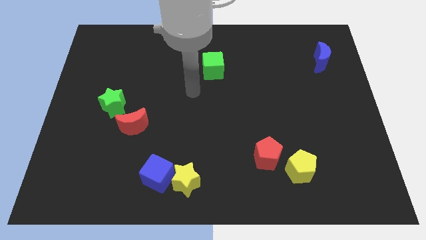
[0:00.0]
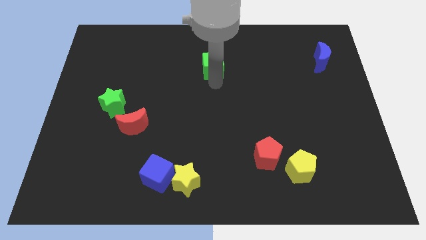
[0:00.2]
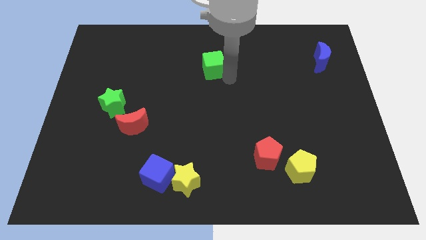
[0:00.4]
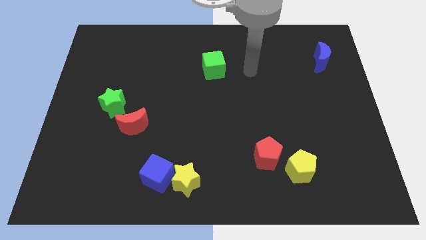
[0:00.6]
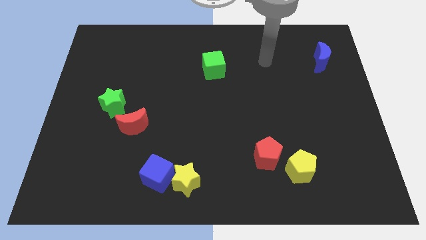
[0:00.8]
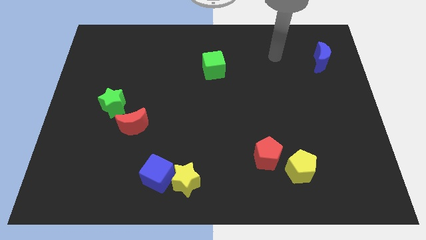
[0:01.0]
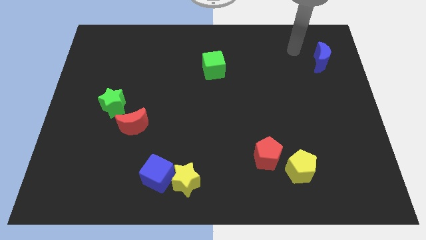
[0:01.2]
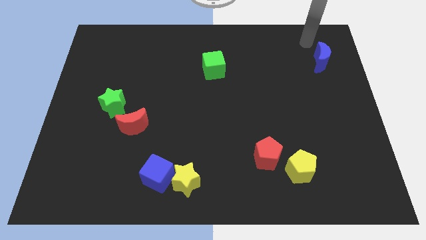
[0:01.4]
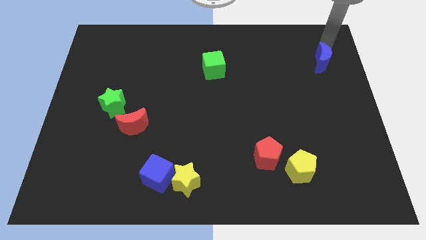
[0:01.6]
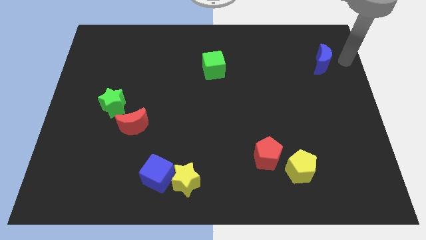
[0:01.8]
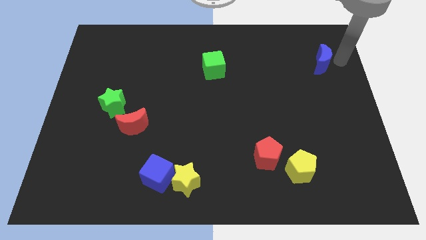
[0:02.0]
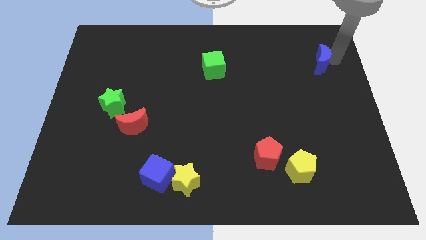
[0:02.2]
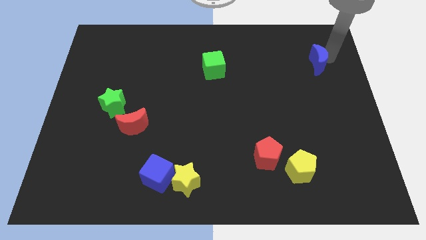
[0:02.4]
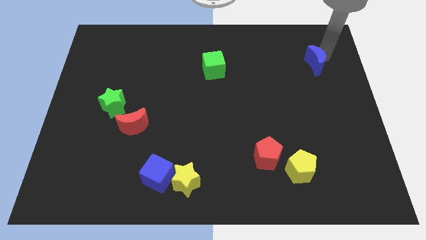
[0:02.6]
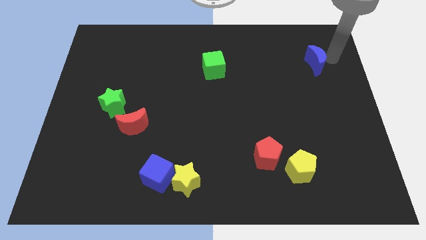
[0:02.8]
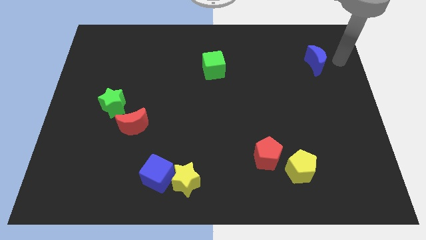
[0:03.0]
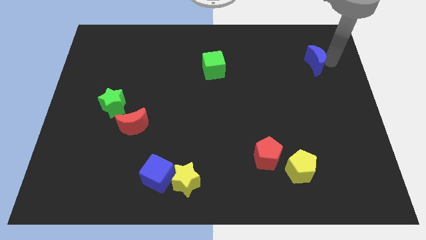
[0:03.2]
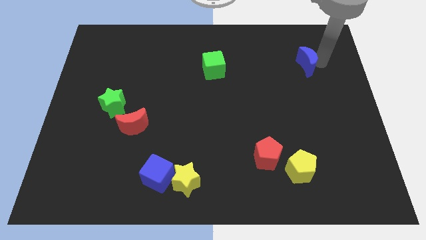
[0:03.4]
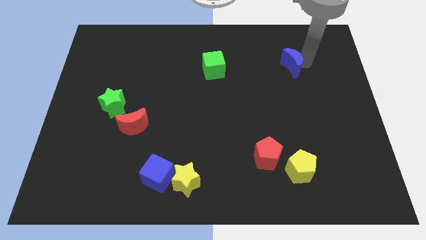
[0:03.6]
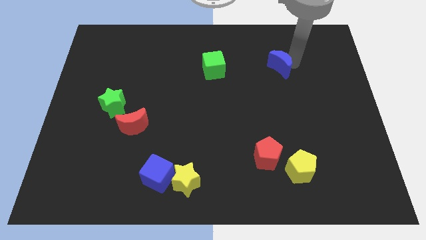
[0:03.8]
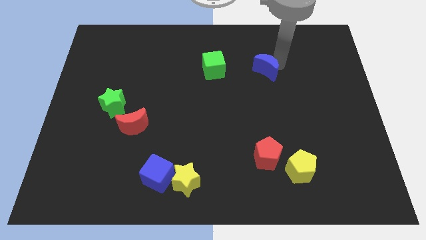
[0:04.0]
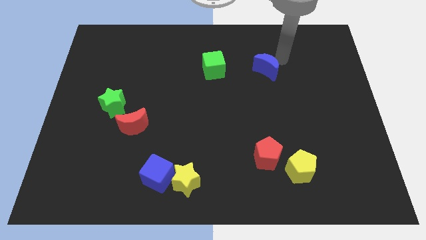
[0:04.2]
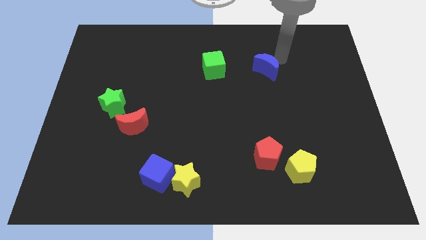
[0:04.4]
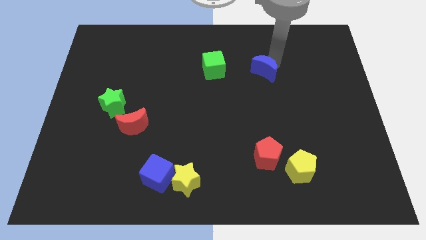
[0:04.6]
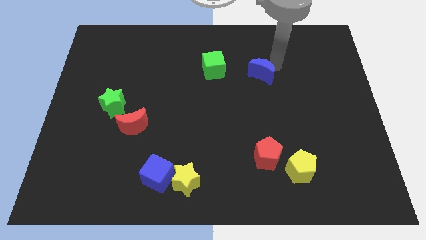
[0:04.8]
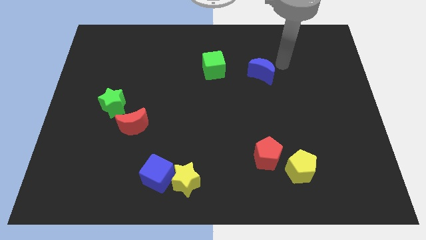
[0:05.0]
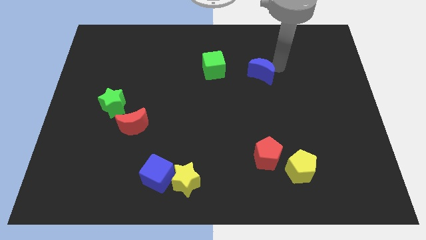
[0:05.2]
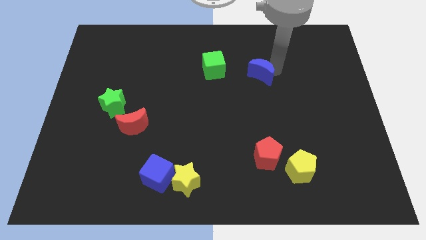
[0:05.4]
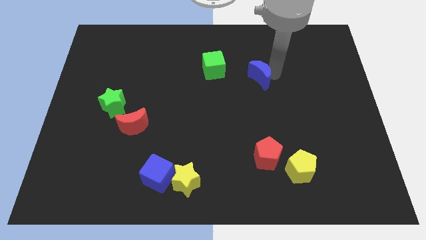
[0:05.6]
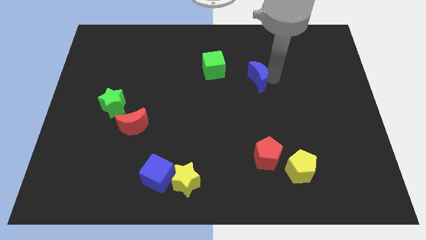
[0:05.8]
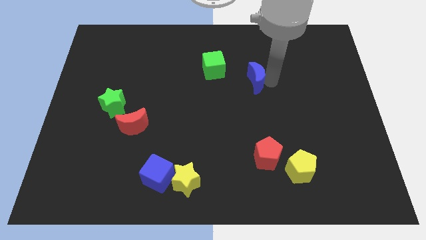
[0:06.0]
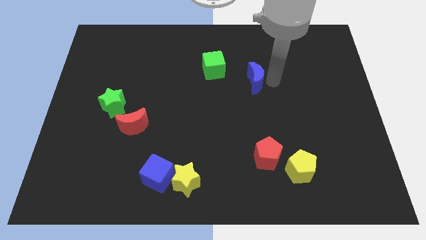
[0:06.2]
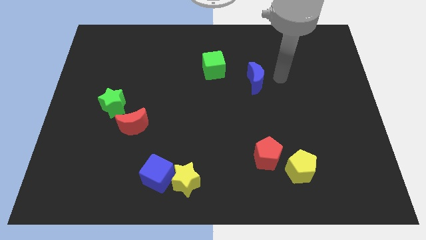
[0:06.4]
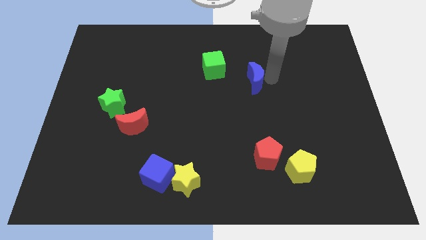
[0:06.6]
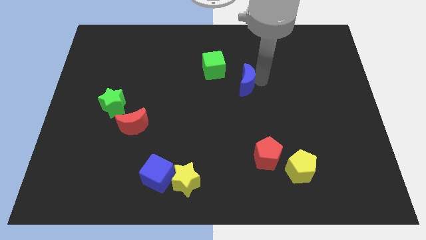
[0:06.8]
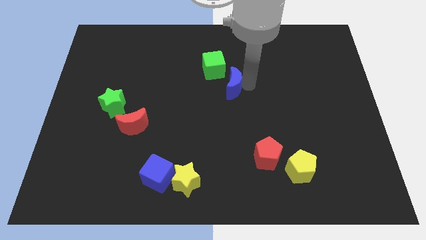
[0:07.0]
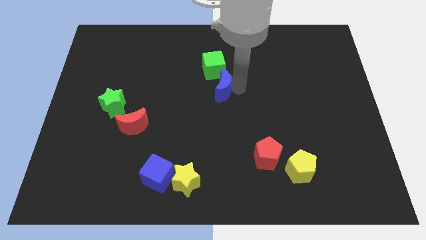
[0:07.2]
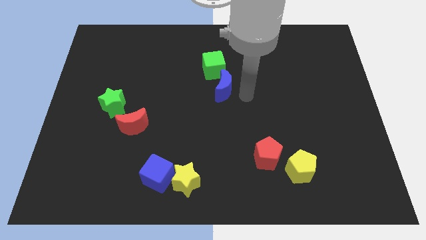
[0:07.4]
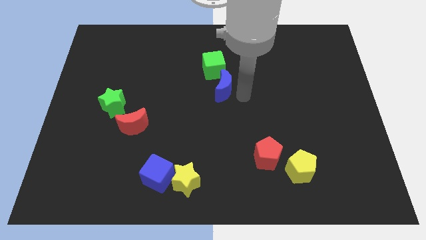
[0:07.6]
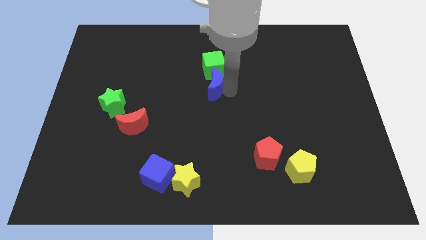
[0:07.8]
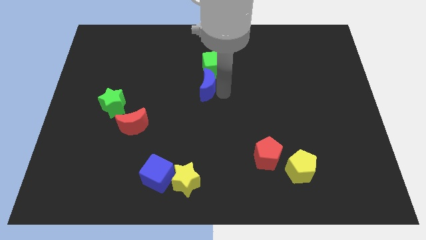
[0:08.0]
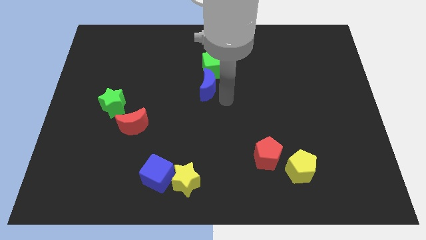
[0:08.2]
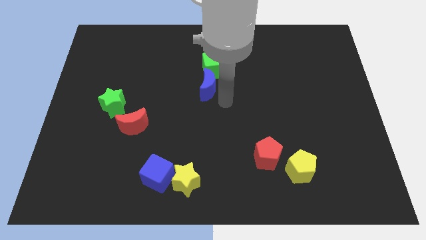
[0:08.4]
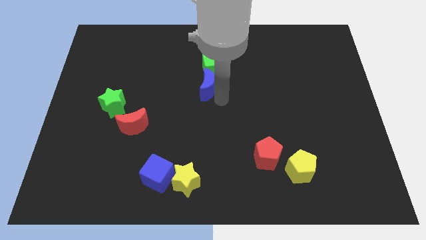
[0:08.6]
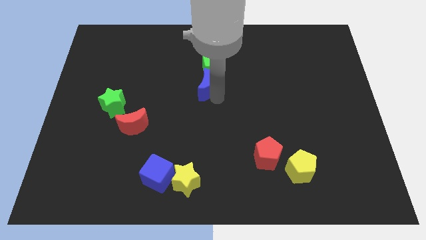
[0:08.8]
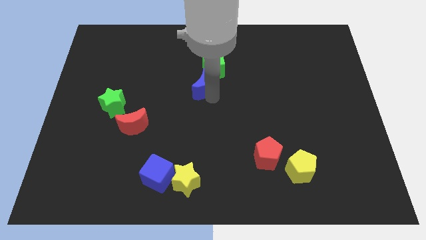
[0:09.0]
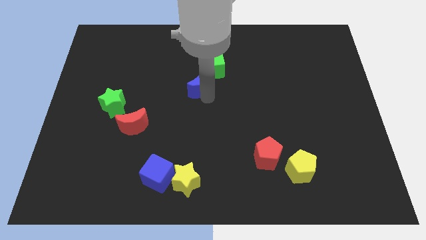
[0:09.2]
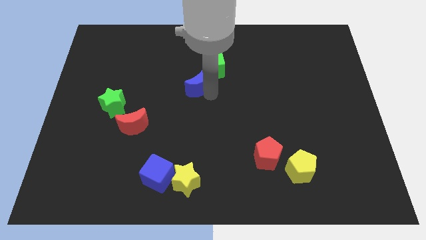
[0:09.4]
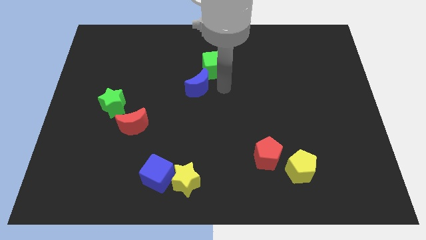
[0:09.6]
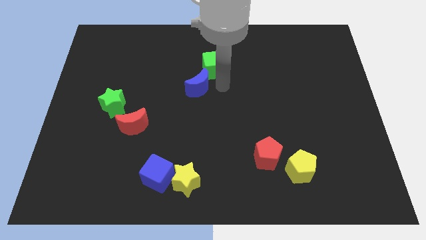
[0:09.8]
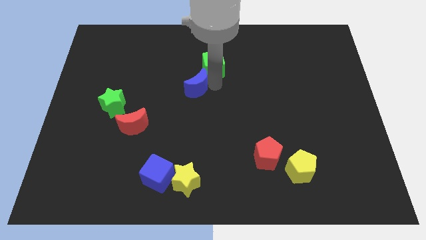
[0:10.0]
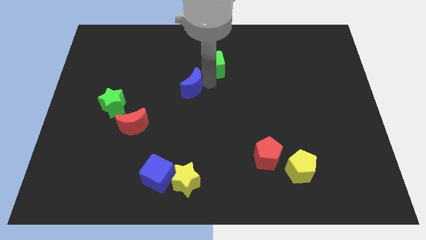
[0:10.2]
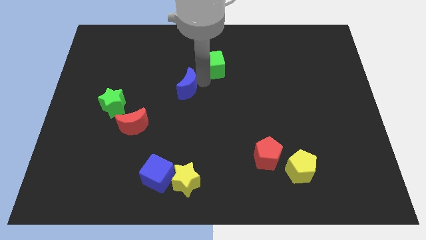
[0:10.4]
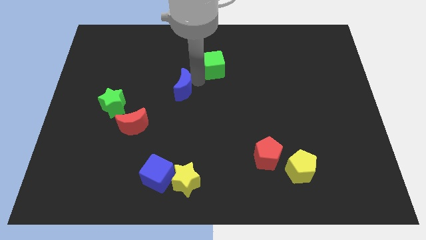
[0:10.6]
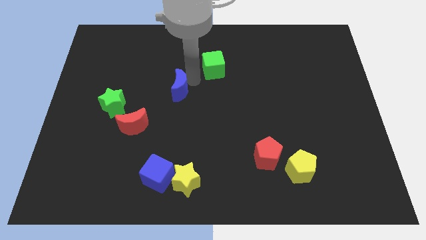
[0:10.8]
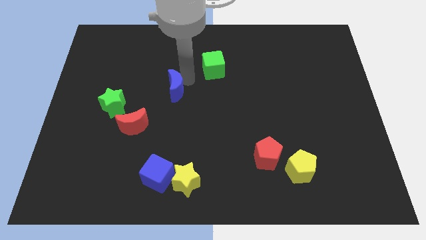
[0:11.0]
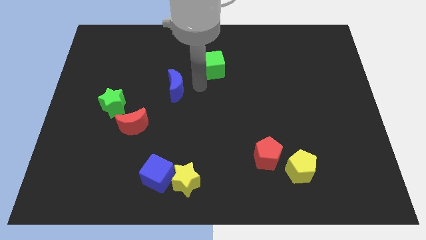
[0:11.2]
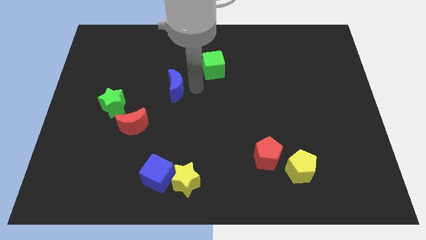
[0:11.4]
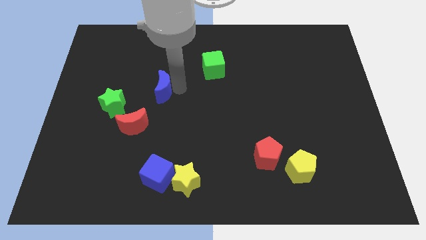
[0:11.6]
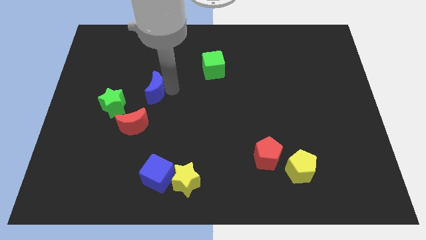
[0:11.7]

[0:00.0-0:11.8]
slide the blue moon to the top right of the green star
